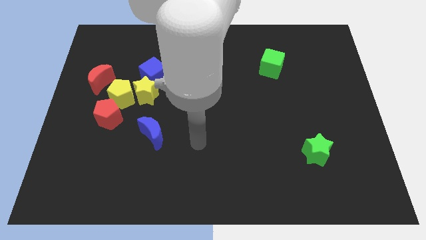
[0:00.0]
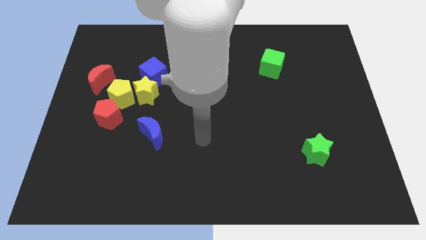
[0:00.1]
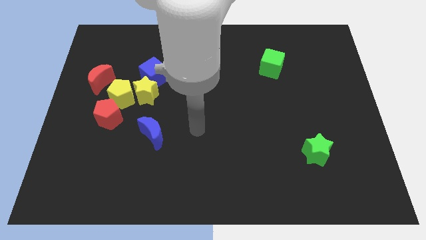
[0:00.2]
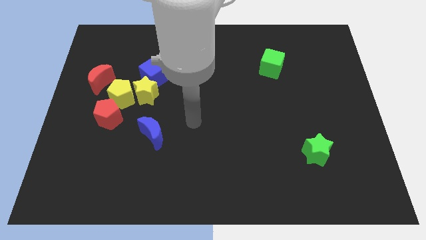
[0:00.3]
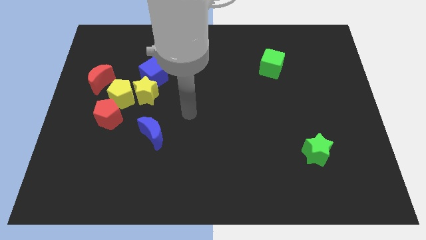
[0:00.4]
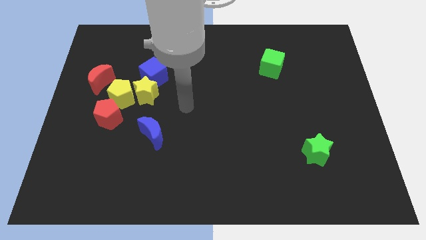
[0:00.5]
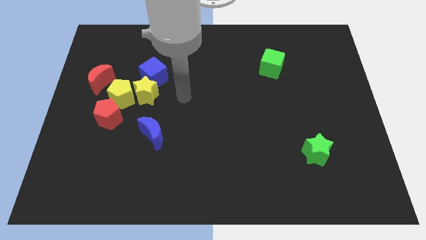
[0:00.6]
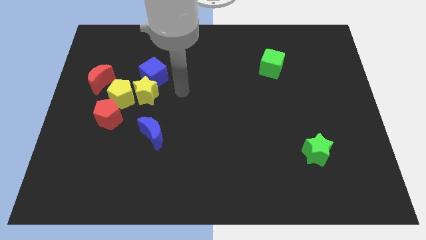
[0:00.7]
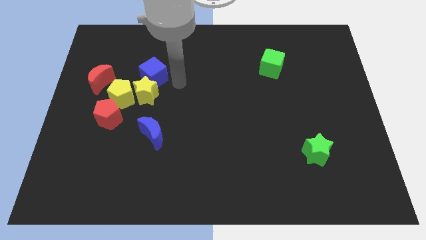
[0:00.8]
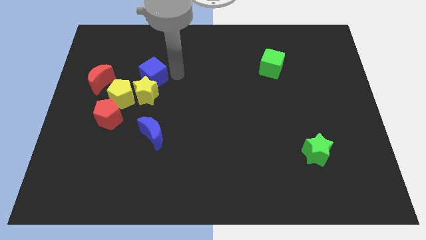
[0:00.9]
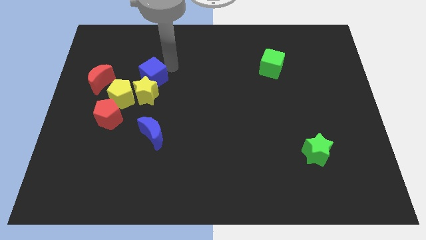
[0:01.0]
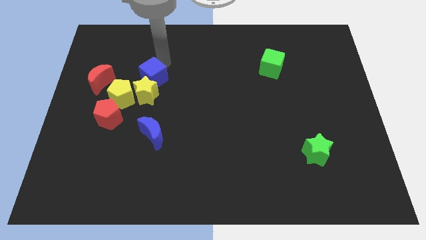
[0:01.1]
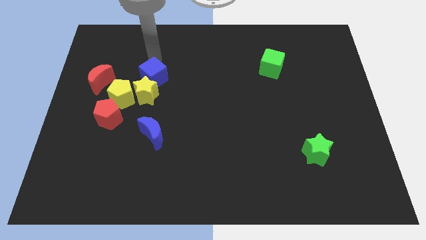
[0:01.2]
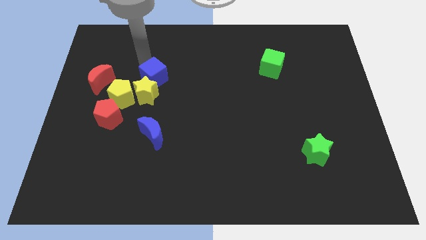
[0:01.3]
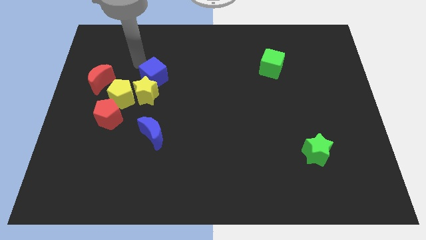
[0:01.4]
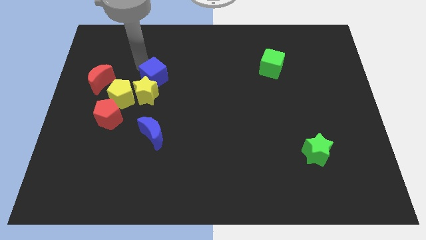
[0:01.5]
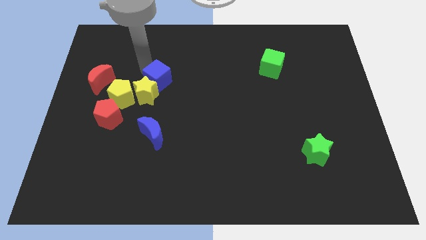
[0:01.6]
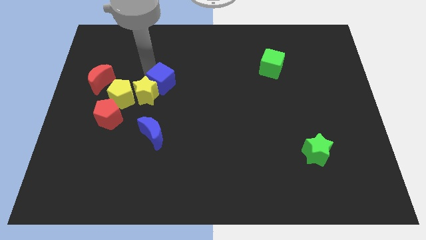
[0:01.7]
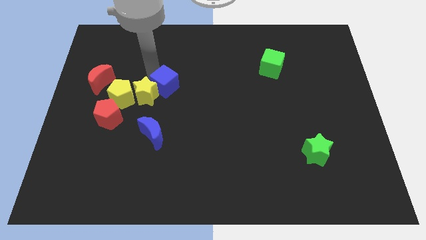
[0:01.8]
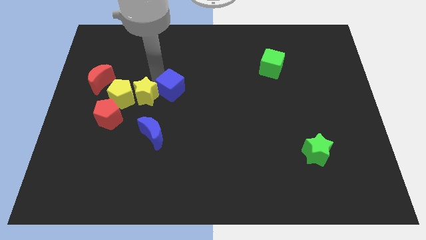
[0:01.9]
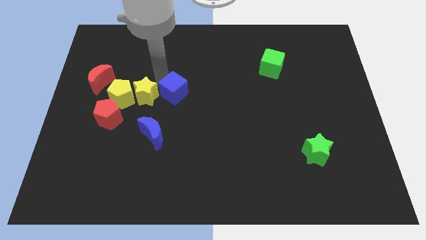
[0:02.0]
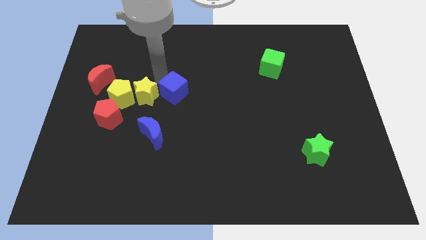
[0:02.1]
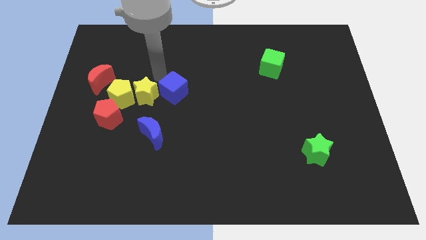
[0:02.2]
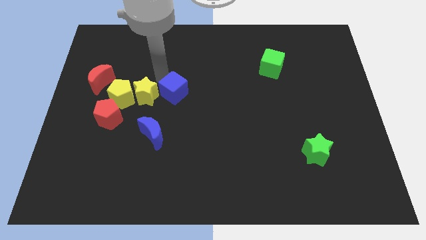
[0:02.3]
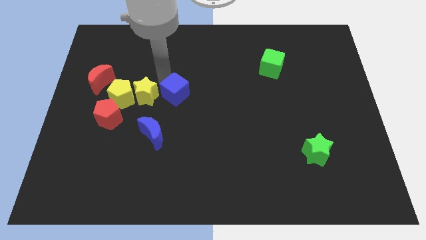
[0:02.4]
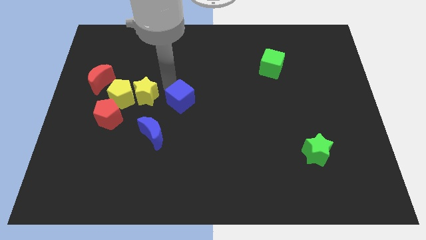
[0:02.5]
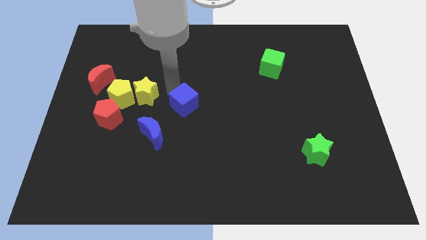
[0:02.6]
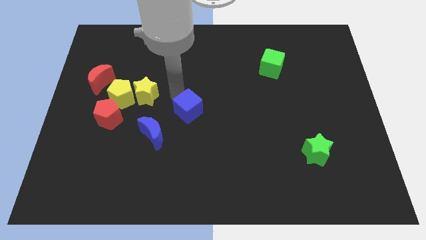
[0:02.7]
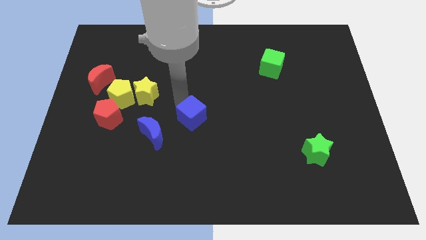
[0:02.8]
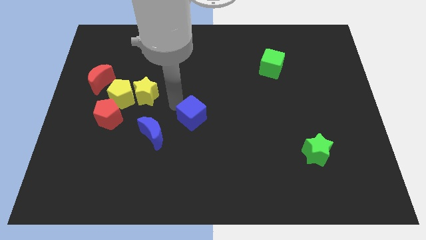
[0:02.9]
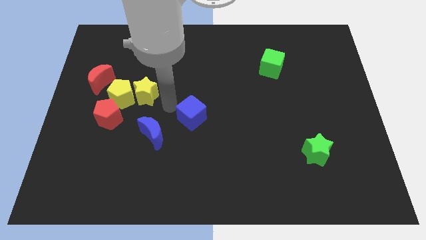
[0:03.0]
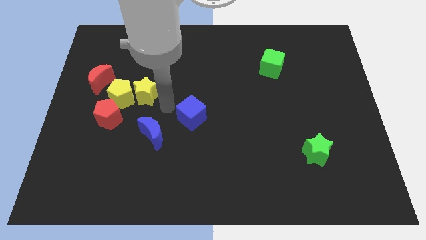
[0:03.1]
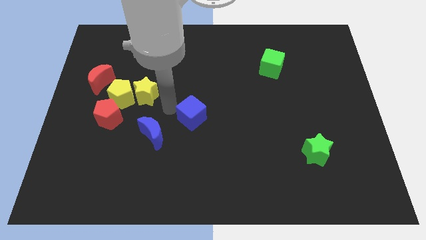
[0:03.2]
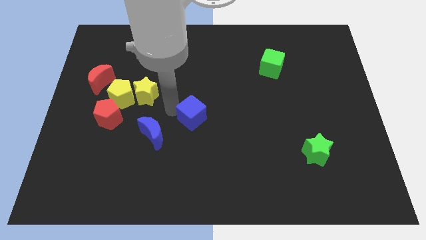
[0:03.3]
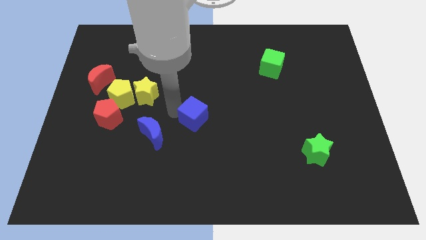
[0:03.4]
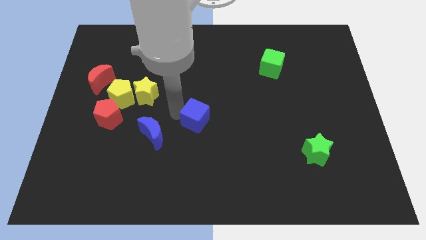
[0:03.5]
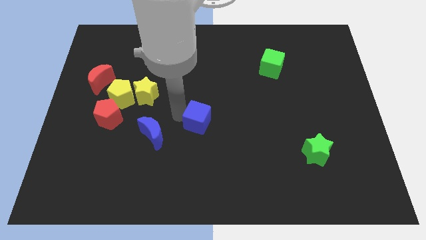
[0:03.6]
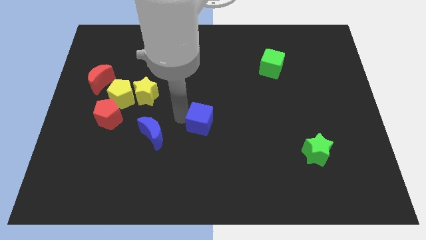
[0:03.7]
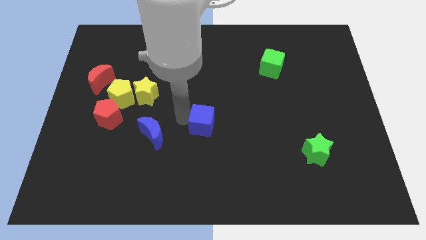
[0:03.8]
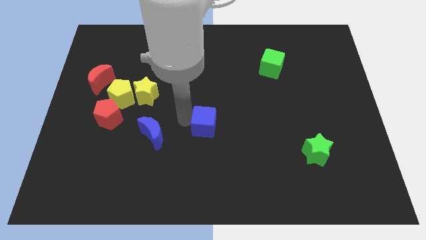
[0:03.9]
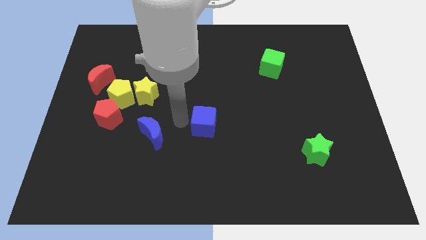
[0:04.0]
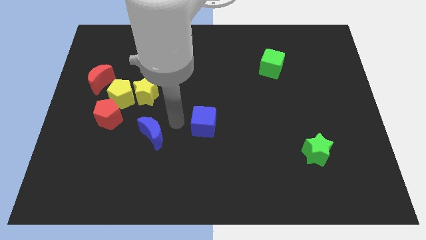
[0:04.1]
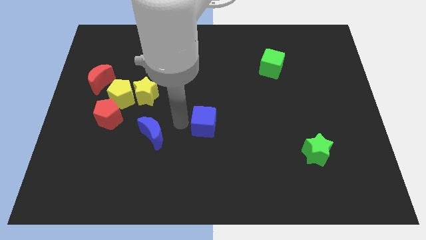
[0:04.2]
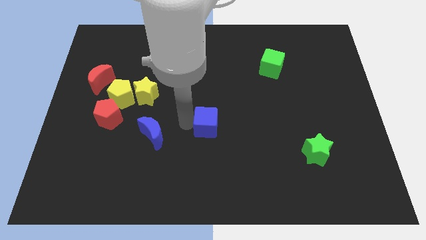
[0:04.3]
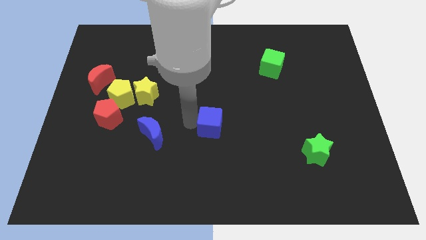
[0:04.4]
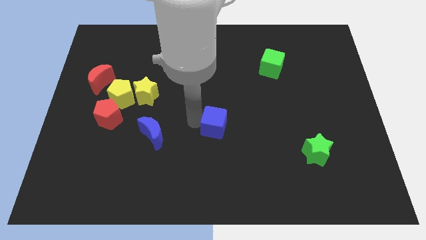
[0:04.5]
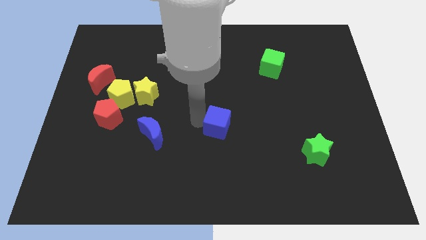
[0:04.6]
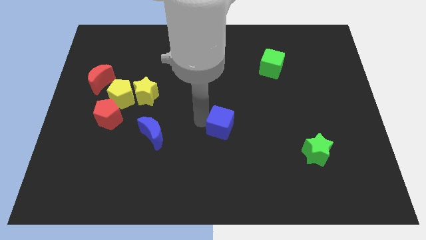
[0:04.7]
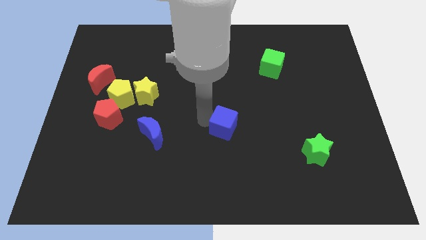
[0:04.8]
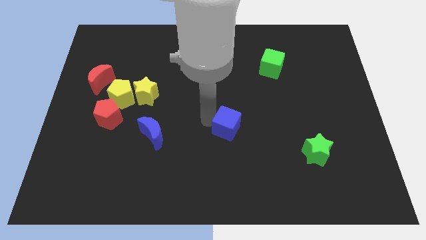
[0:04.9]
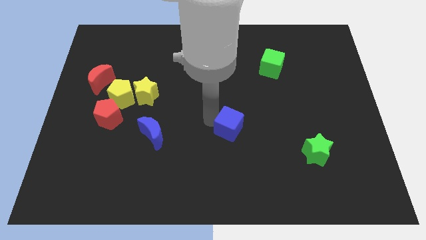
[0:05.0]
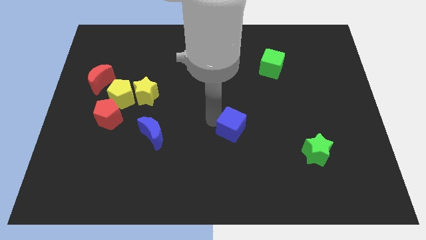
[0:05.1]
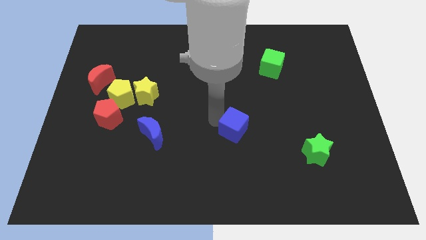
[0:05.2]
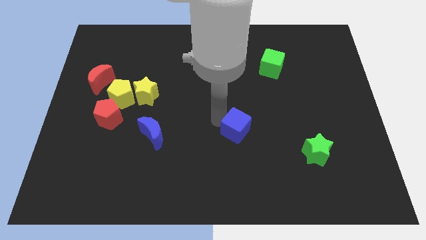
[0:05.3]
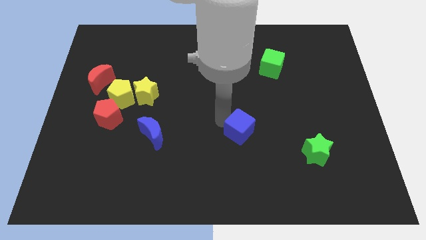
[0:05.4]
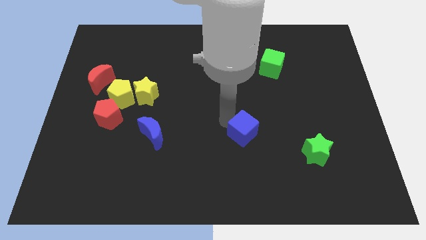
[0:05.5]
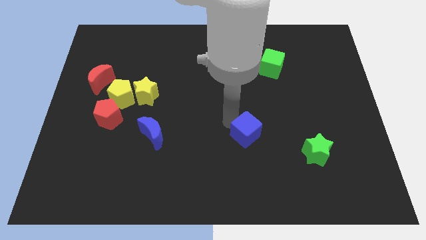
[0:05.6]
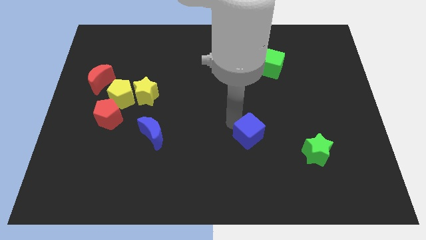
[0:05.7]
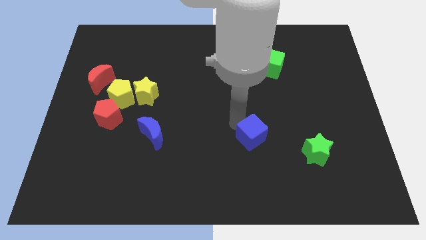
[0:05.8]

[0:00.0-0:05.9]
put the blue cube just left of the green star

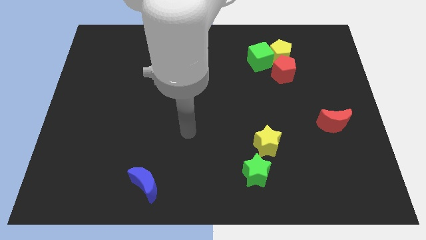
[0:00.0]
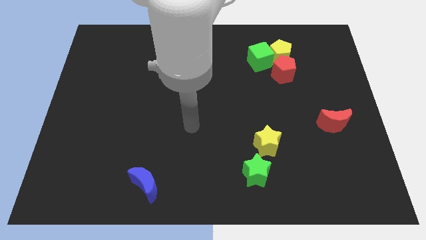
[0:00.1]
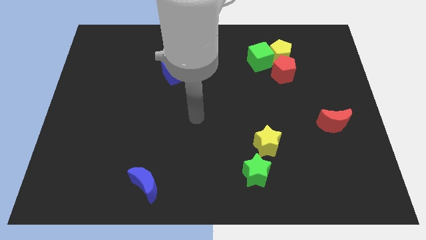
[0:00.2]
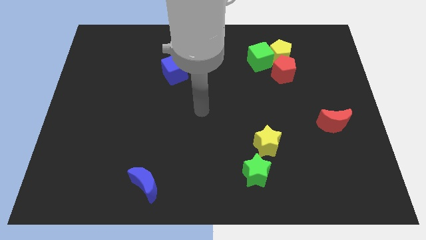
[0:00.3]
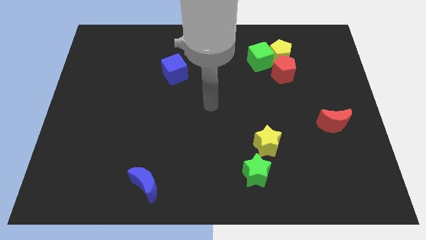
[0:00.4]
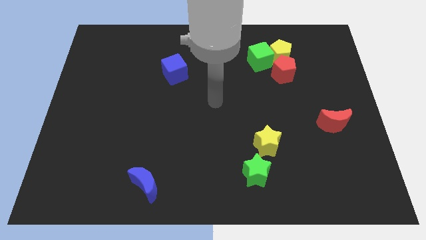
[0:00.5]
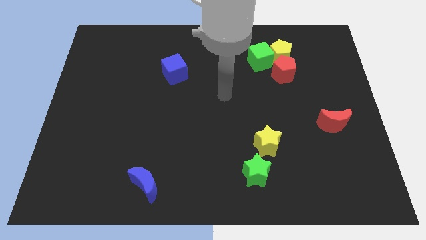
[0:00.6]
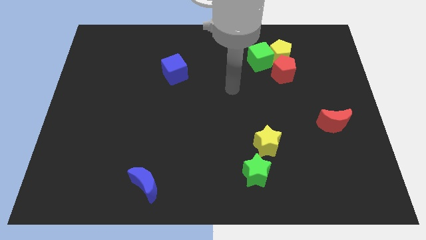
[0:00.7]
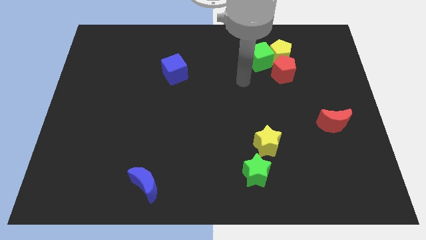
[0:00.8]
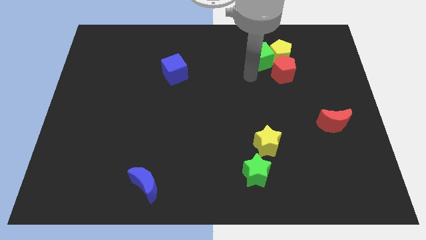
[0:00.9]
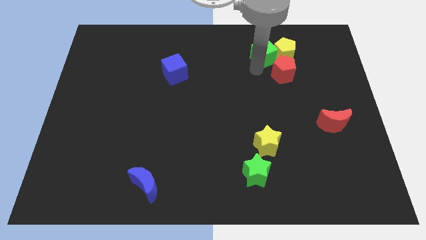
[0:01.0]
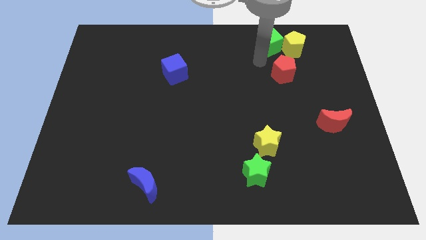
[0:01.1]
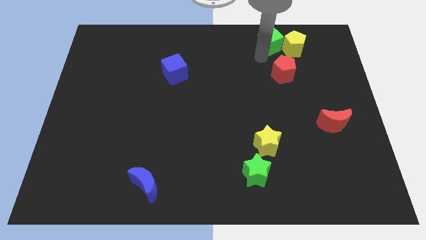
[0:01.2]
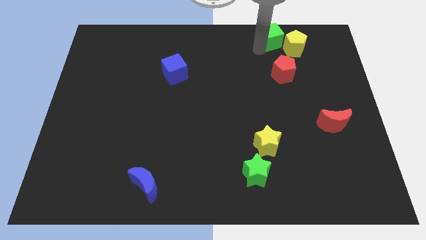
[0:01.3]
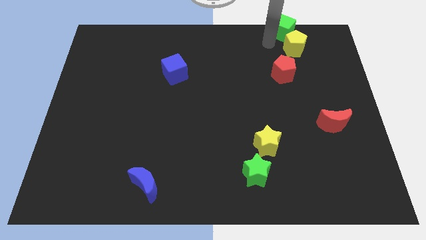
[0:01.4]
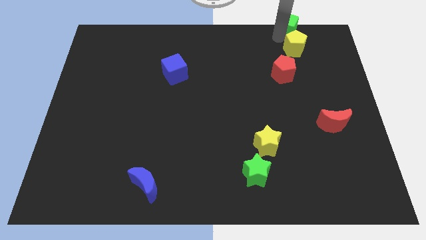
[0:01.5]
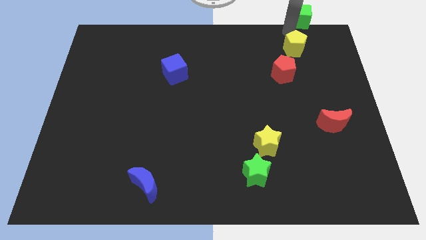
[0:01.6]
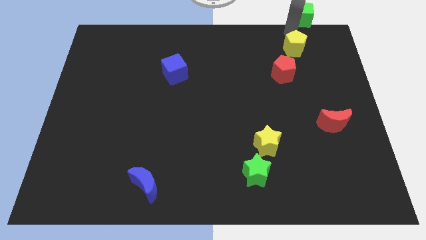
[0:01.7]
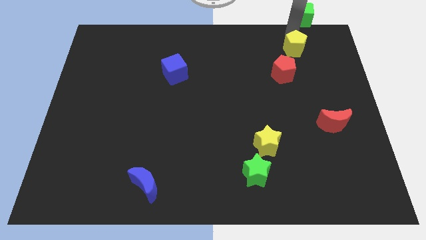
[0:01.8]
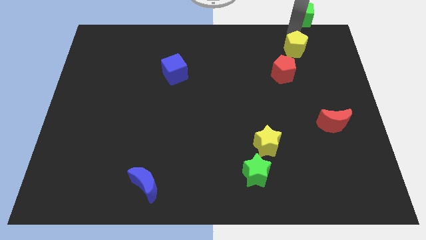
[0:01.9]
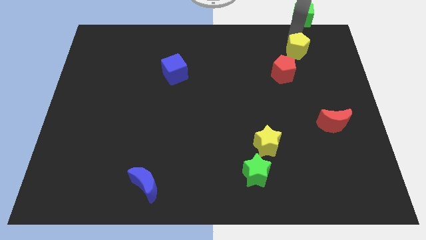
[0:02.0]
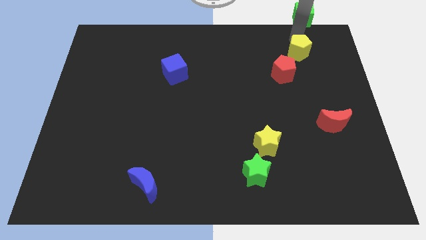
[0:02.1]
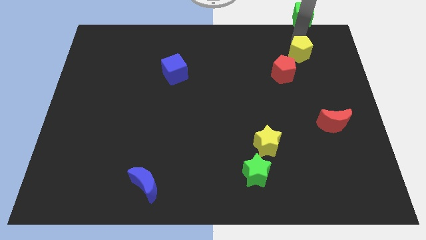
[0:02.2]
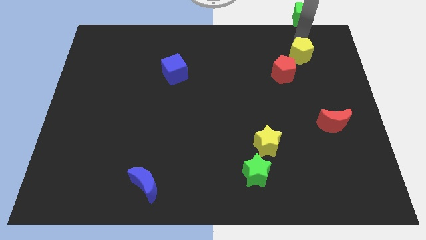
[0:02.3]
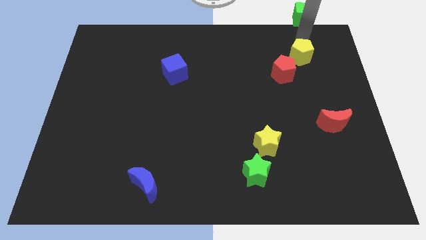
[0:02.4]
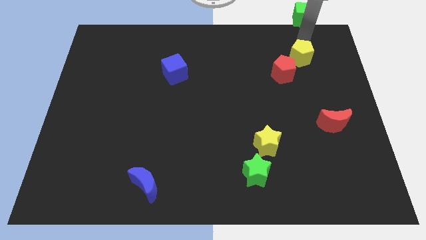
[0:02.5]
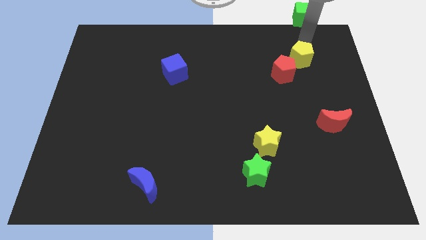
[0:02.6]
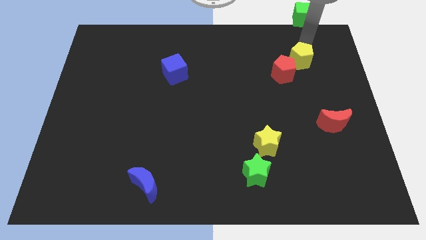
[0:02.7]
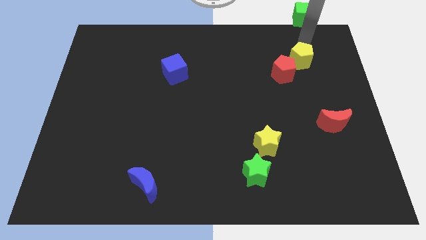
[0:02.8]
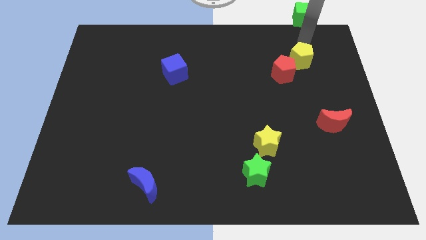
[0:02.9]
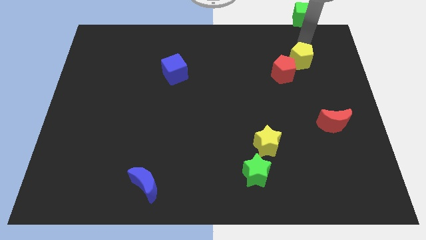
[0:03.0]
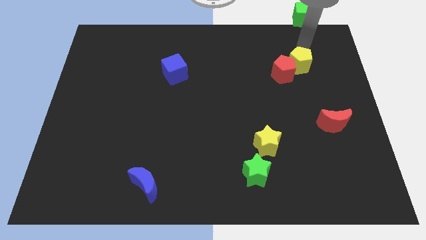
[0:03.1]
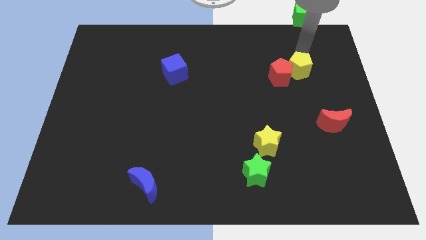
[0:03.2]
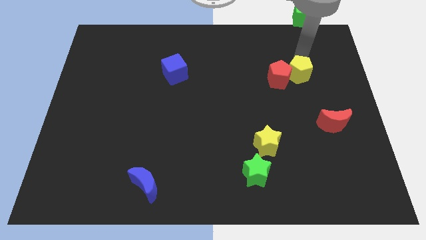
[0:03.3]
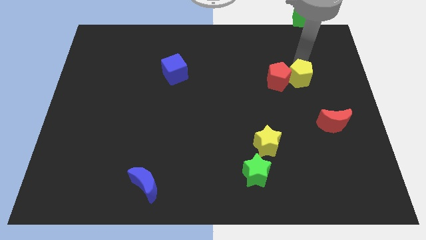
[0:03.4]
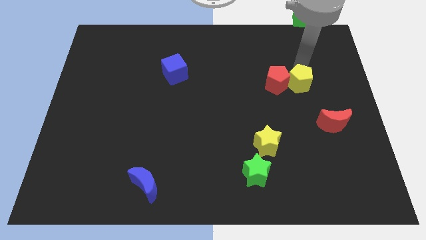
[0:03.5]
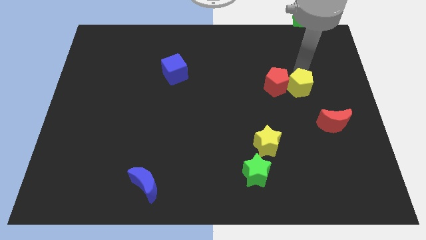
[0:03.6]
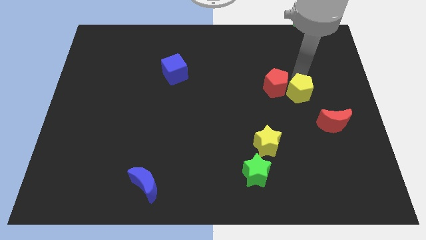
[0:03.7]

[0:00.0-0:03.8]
slide the yellow pentagon to the top left of the red moon
